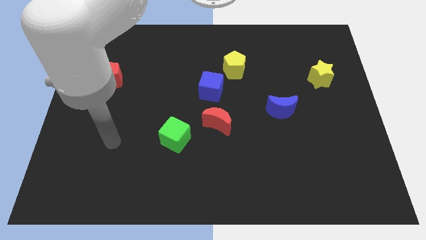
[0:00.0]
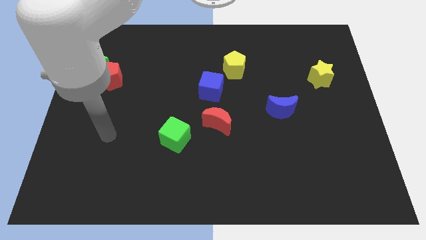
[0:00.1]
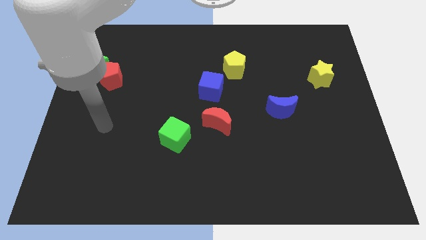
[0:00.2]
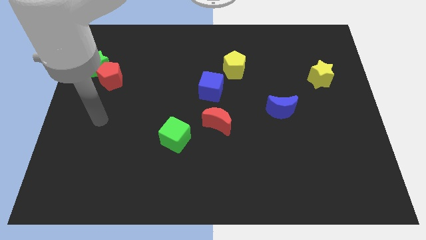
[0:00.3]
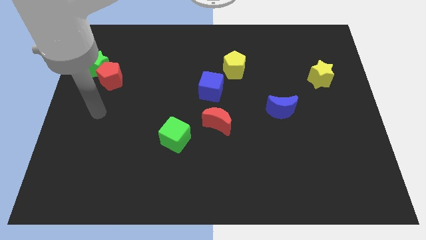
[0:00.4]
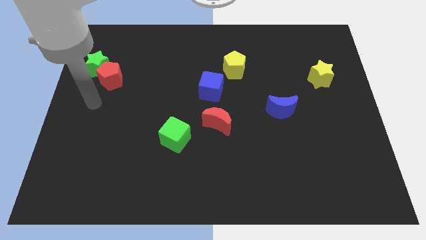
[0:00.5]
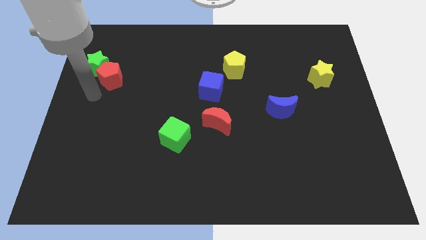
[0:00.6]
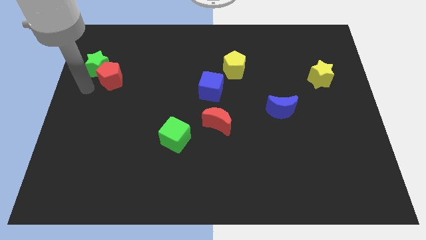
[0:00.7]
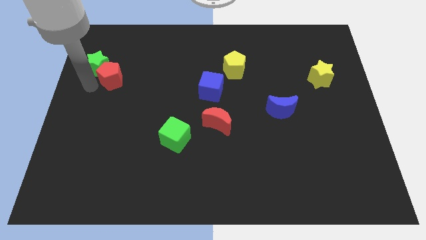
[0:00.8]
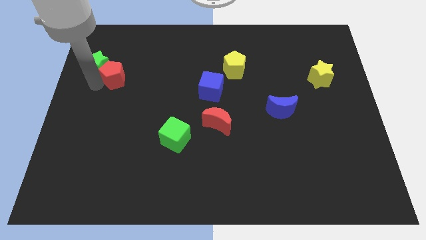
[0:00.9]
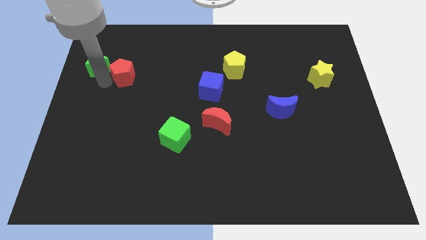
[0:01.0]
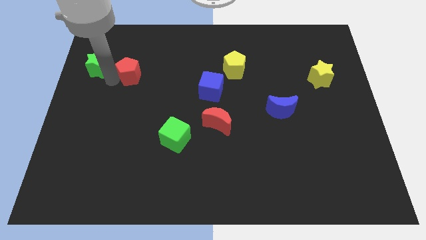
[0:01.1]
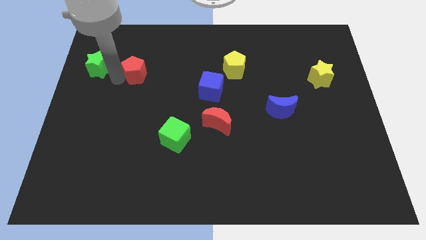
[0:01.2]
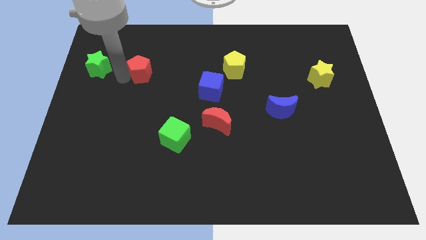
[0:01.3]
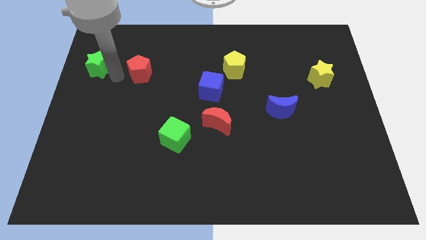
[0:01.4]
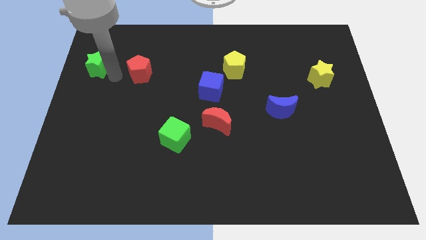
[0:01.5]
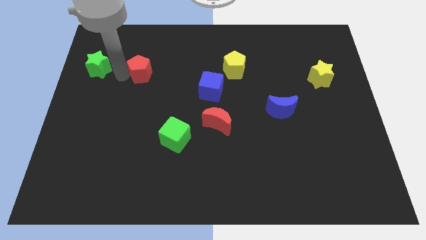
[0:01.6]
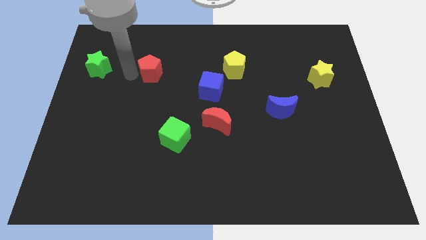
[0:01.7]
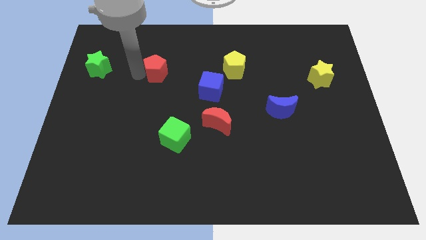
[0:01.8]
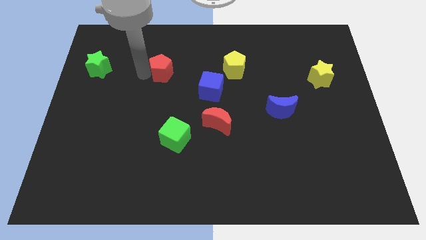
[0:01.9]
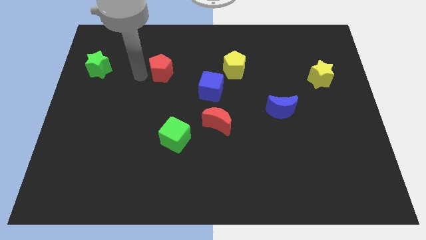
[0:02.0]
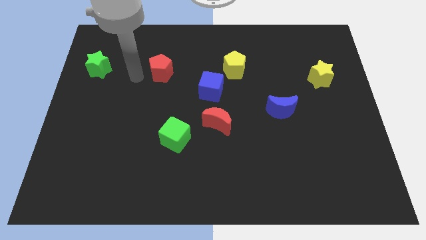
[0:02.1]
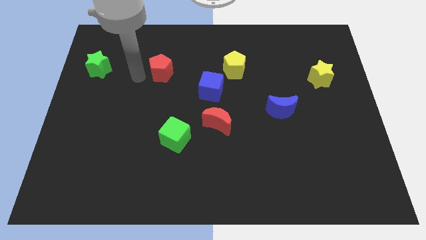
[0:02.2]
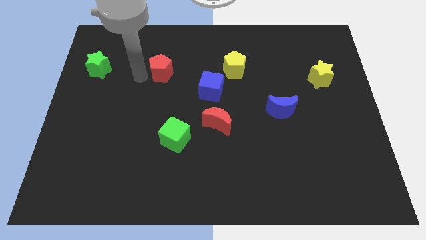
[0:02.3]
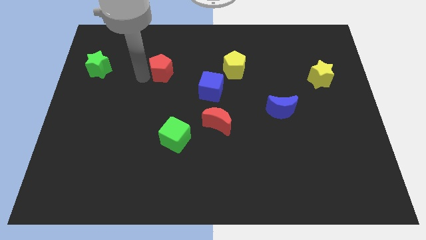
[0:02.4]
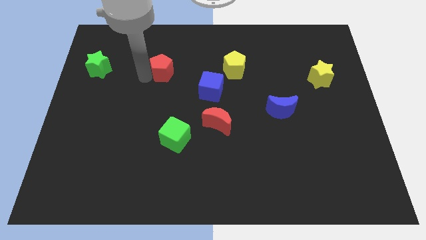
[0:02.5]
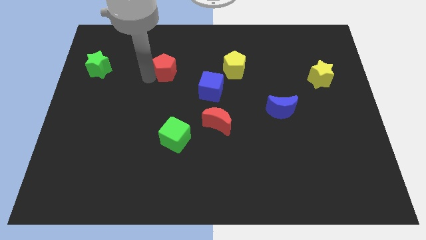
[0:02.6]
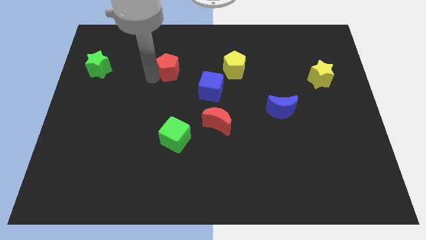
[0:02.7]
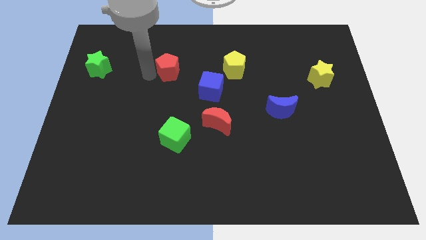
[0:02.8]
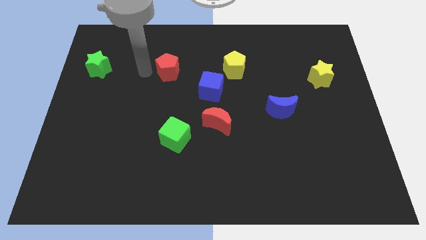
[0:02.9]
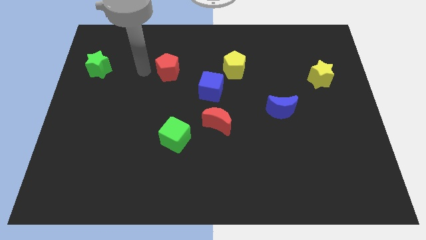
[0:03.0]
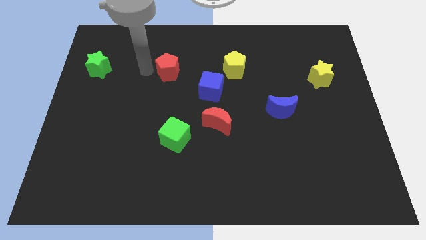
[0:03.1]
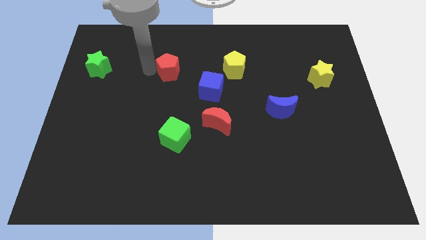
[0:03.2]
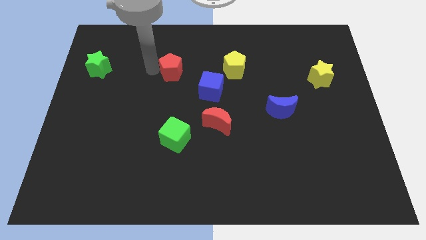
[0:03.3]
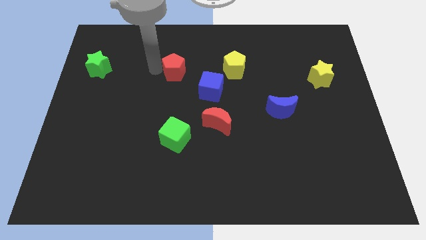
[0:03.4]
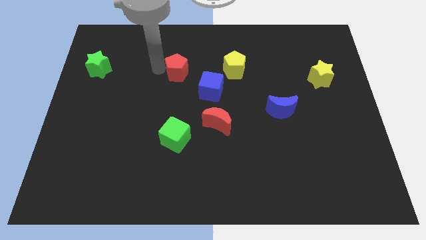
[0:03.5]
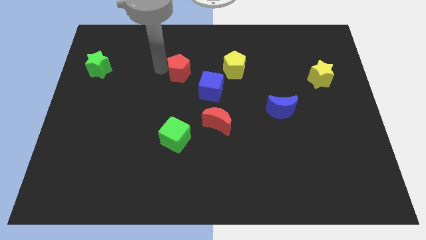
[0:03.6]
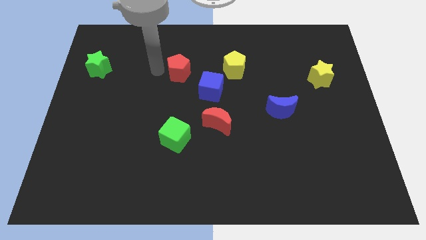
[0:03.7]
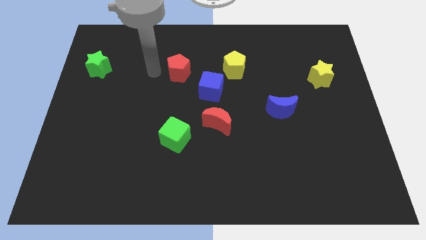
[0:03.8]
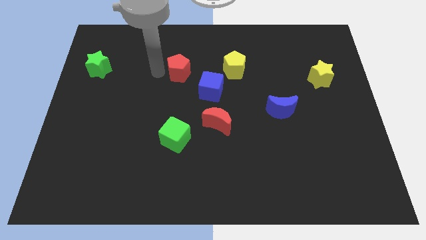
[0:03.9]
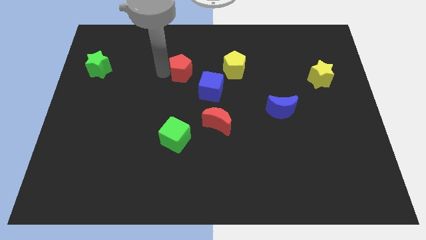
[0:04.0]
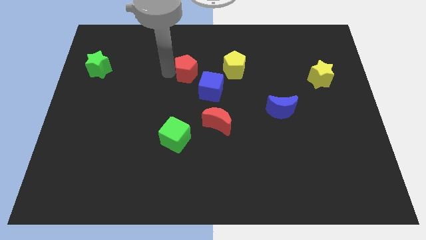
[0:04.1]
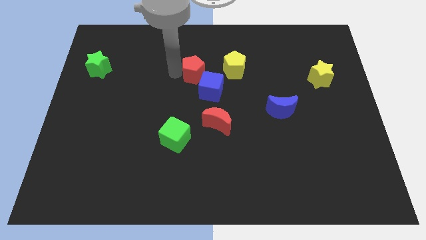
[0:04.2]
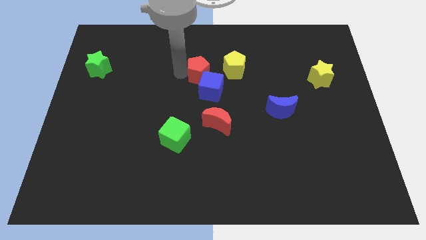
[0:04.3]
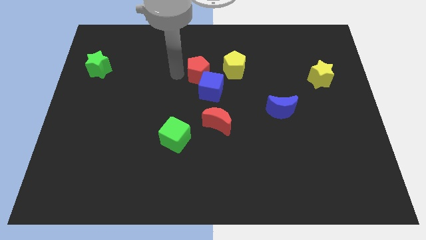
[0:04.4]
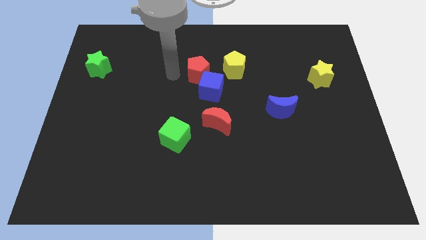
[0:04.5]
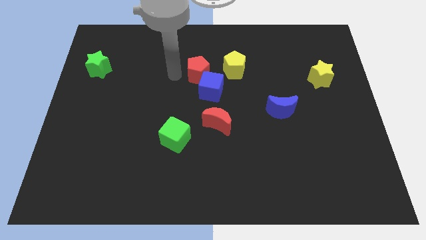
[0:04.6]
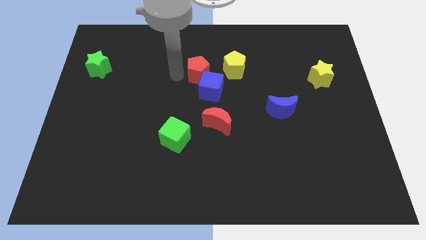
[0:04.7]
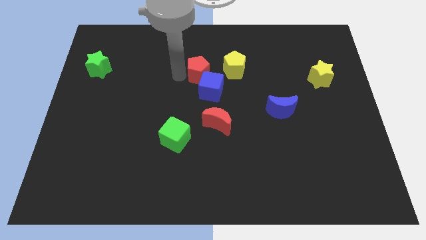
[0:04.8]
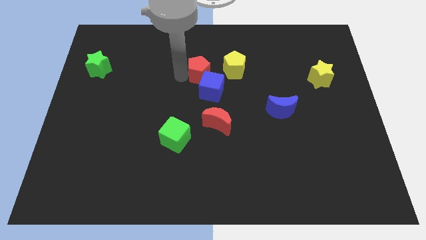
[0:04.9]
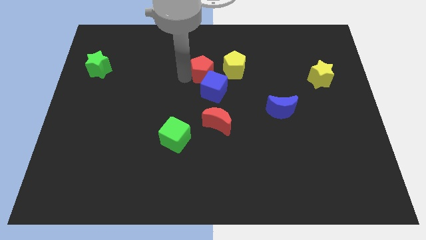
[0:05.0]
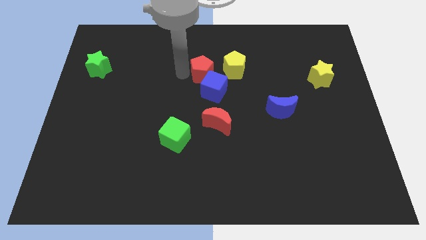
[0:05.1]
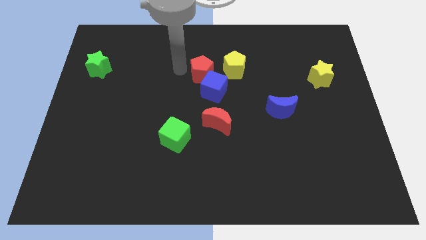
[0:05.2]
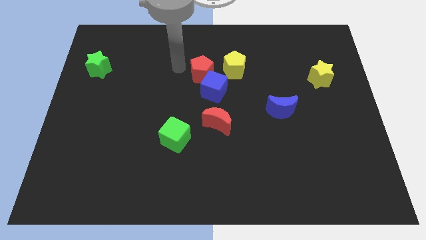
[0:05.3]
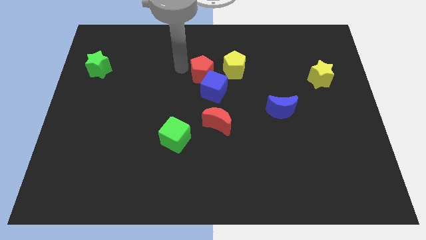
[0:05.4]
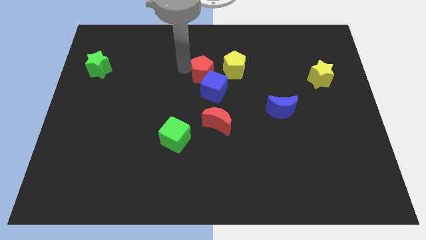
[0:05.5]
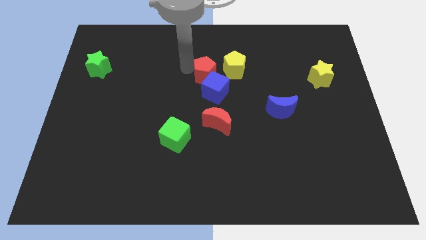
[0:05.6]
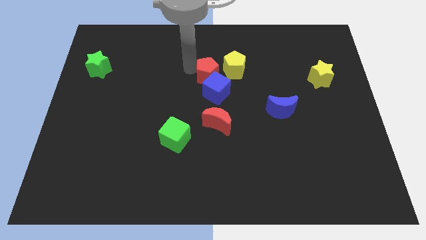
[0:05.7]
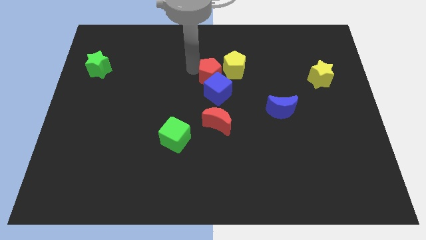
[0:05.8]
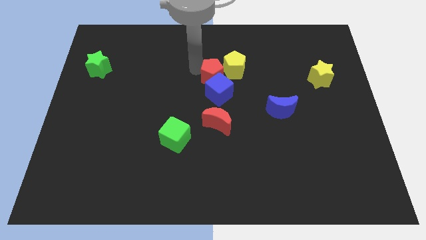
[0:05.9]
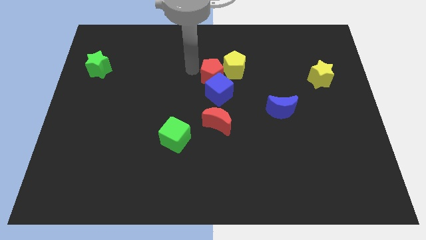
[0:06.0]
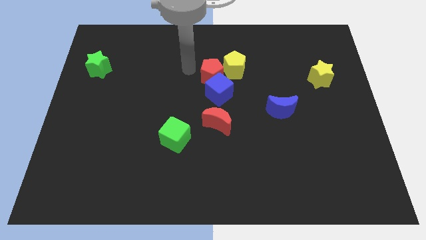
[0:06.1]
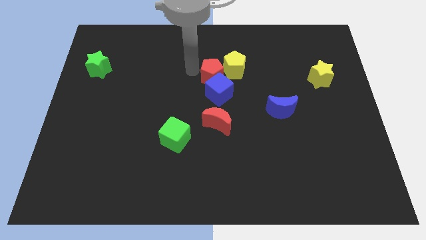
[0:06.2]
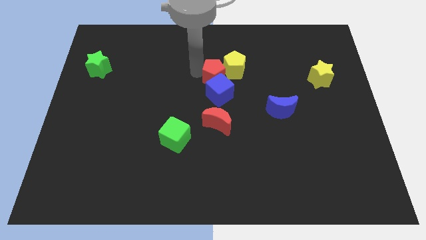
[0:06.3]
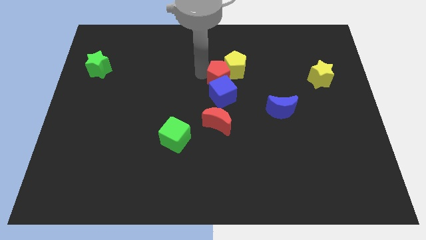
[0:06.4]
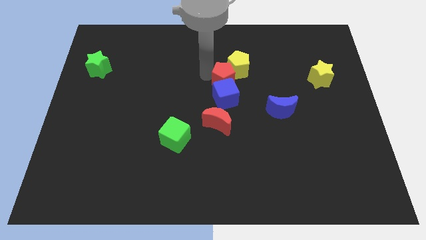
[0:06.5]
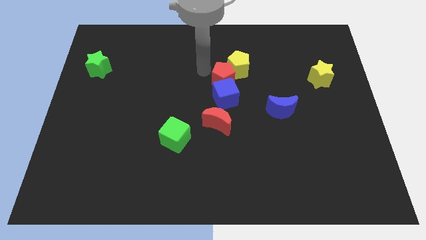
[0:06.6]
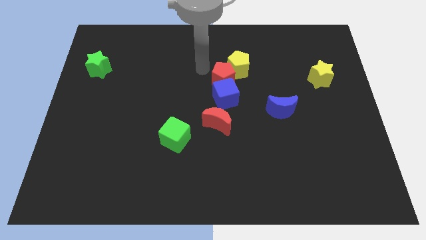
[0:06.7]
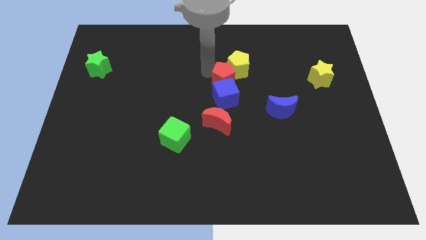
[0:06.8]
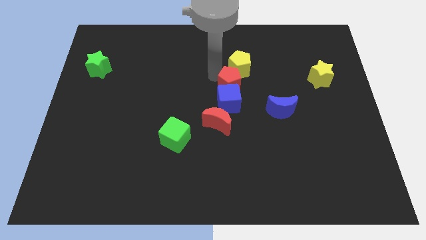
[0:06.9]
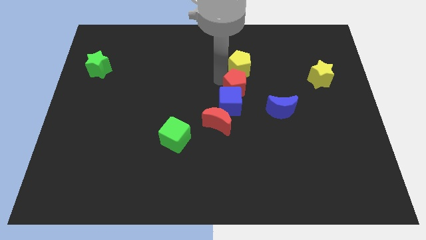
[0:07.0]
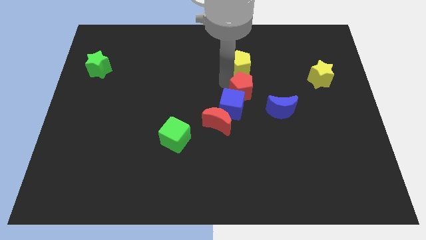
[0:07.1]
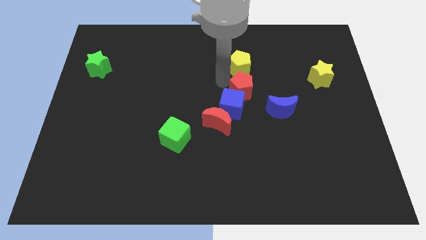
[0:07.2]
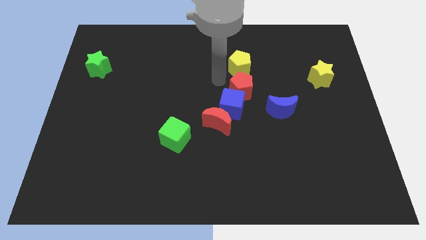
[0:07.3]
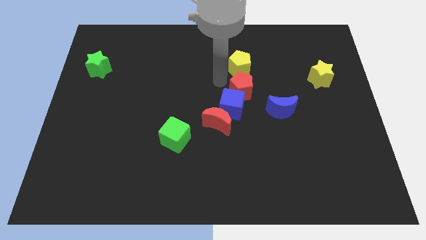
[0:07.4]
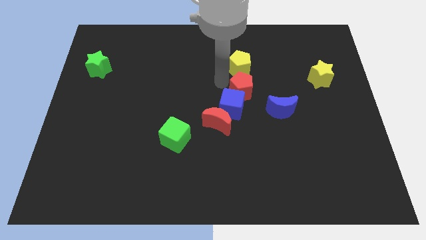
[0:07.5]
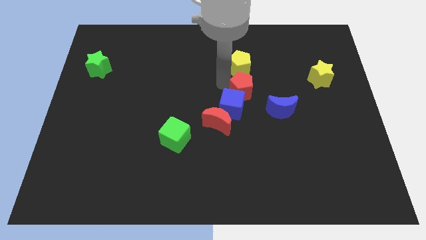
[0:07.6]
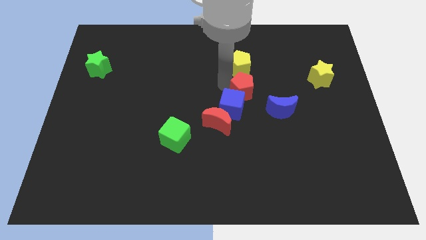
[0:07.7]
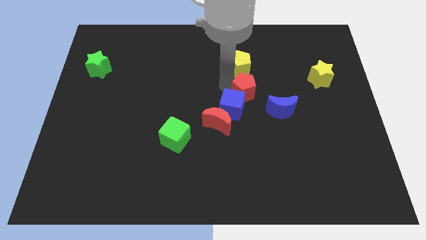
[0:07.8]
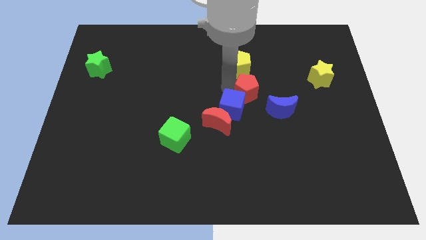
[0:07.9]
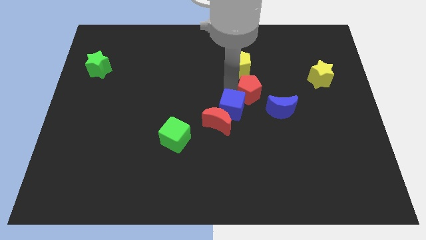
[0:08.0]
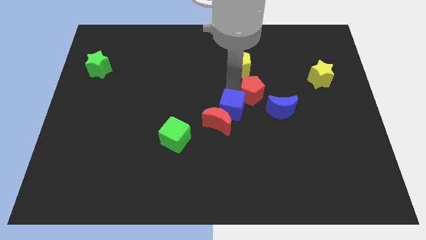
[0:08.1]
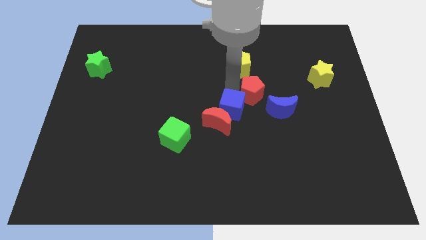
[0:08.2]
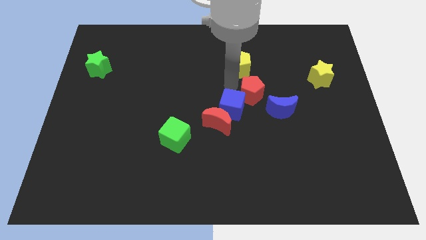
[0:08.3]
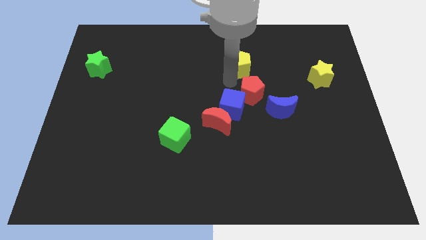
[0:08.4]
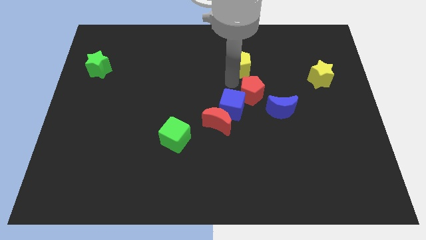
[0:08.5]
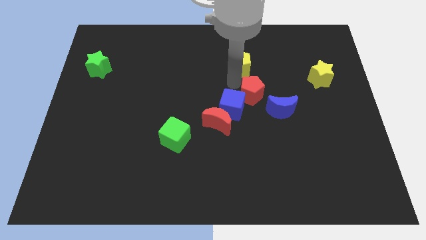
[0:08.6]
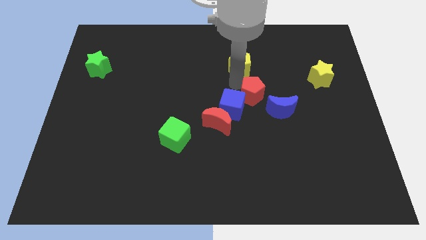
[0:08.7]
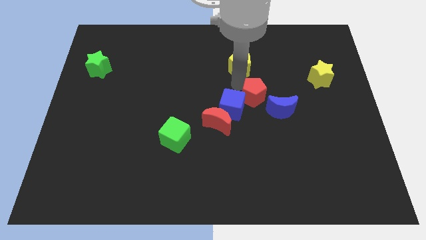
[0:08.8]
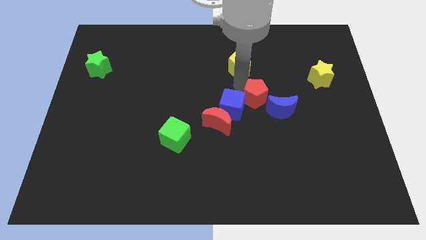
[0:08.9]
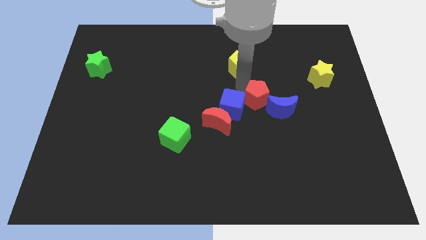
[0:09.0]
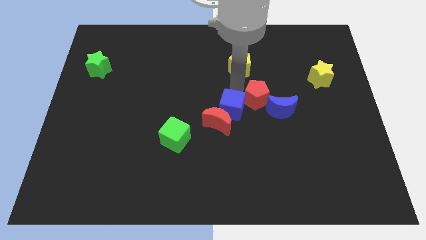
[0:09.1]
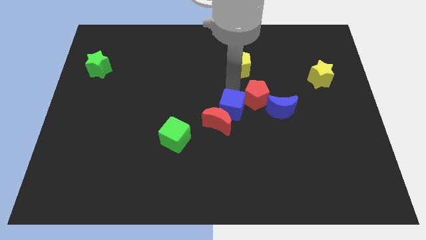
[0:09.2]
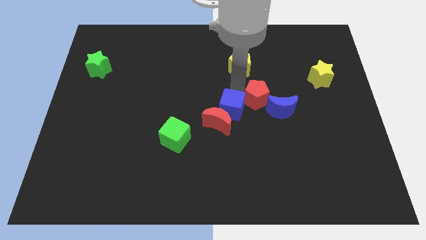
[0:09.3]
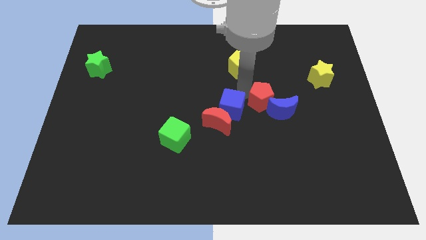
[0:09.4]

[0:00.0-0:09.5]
push the red pentagon close to the blue moon
